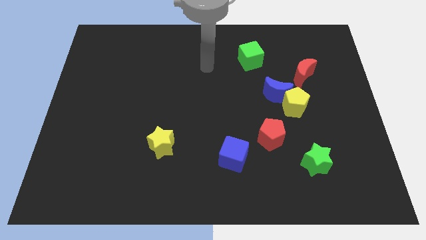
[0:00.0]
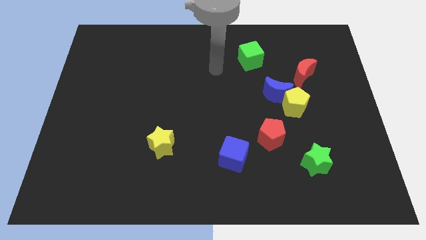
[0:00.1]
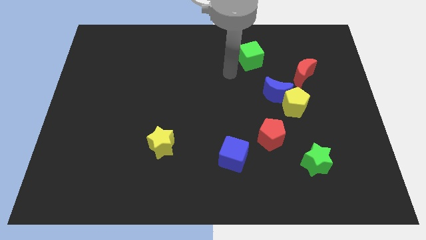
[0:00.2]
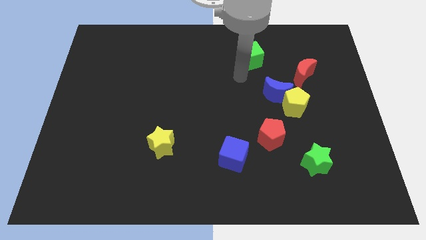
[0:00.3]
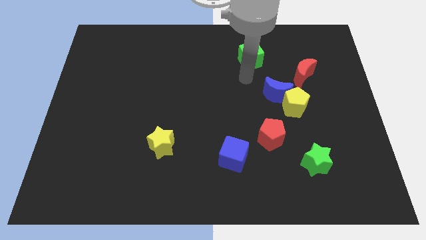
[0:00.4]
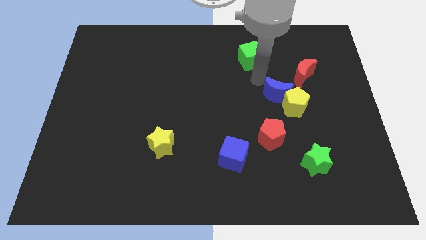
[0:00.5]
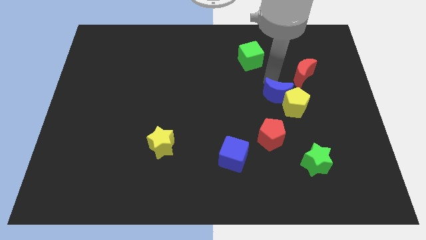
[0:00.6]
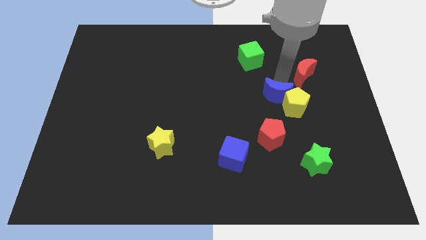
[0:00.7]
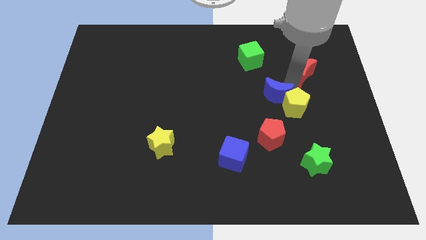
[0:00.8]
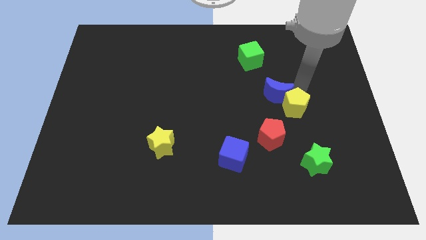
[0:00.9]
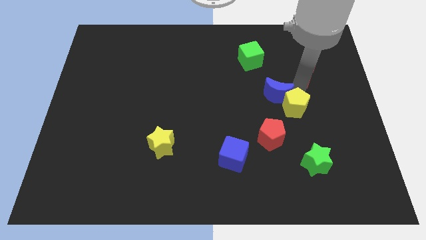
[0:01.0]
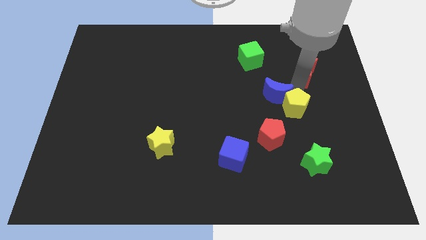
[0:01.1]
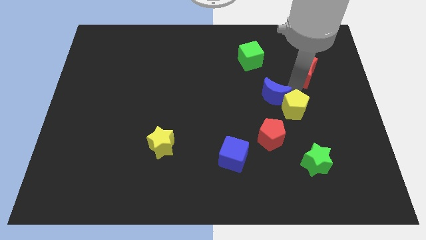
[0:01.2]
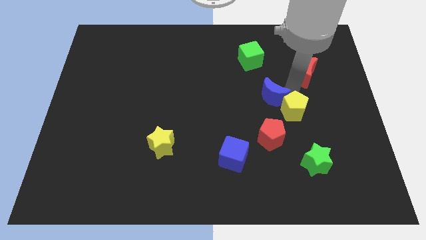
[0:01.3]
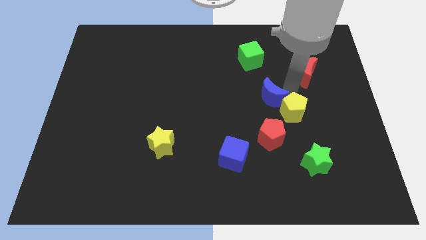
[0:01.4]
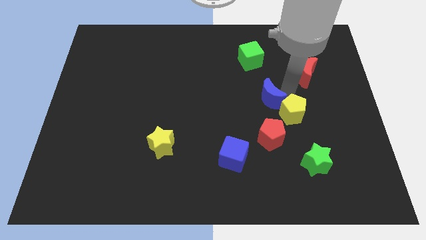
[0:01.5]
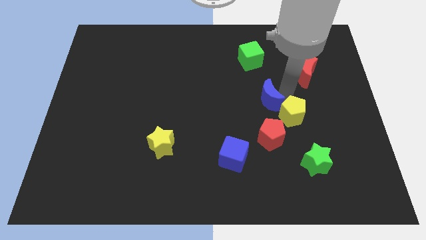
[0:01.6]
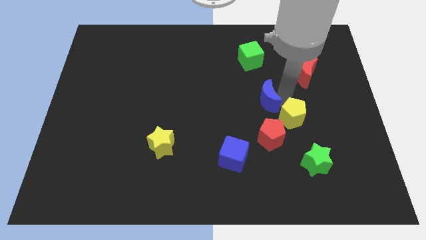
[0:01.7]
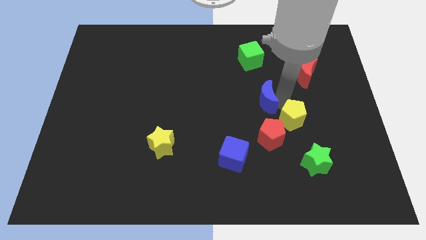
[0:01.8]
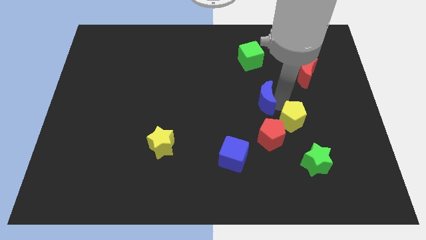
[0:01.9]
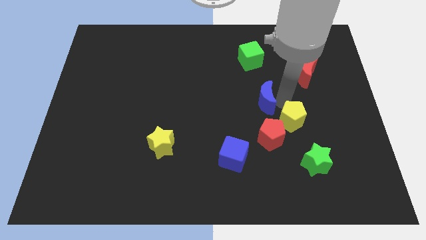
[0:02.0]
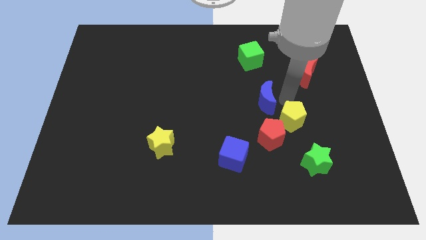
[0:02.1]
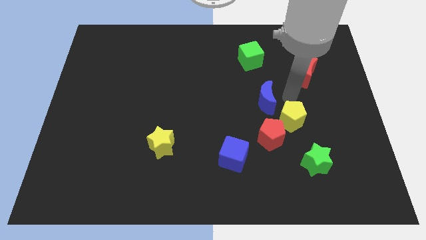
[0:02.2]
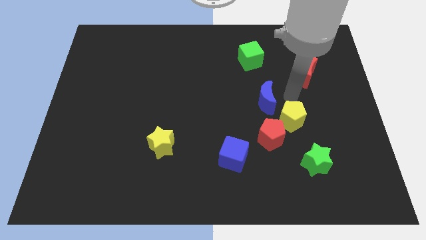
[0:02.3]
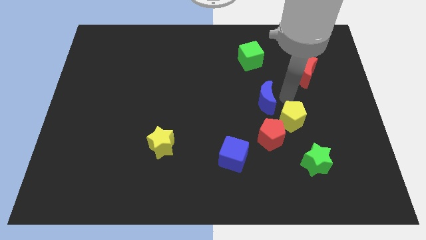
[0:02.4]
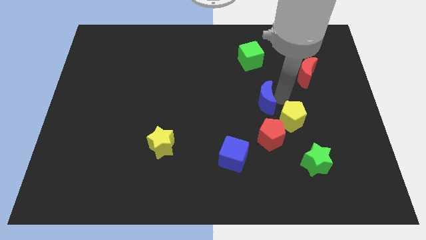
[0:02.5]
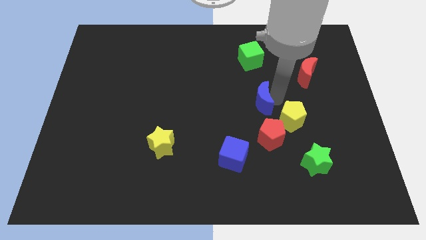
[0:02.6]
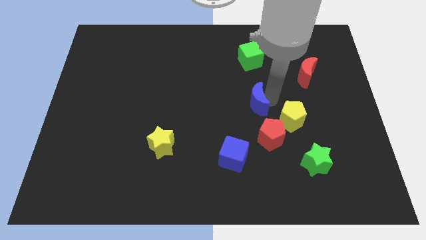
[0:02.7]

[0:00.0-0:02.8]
pull the blue moon apart from the yellow pentagon and red moon

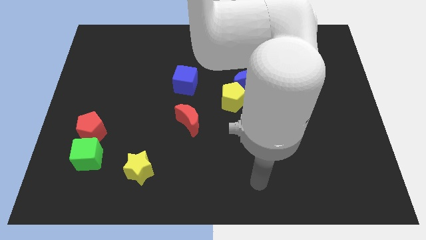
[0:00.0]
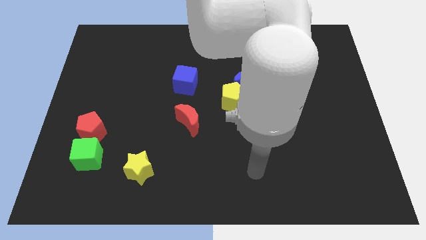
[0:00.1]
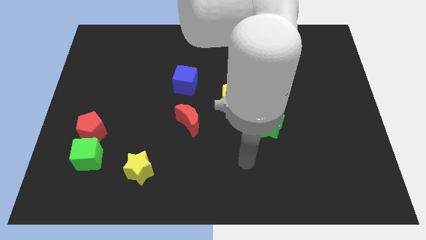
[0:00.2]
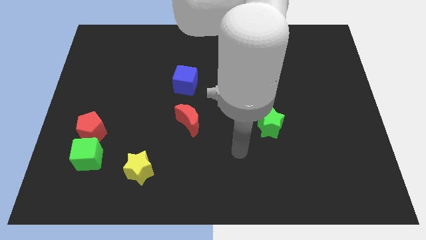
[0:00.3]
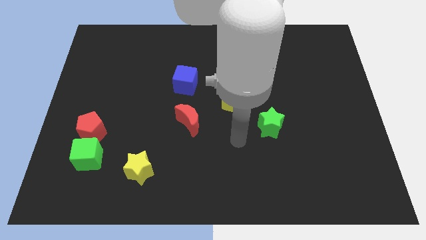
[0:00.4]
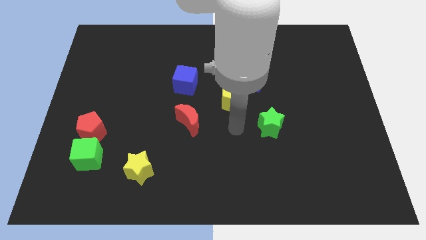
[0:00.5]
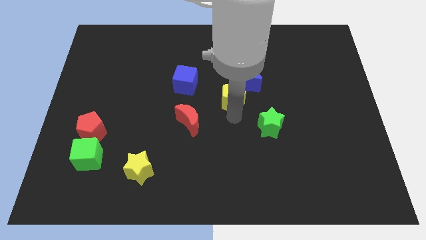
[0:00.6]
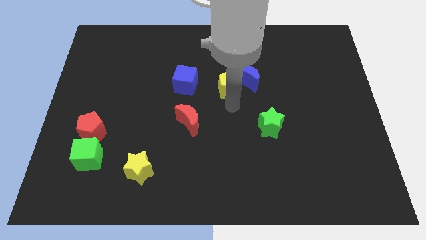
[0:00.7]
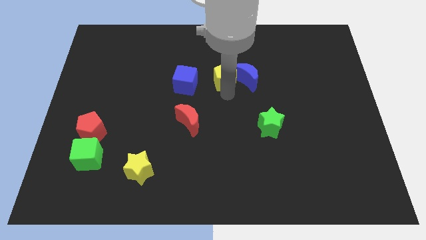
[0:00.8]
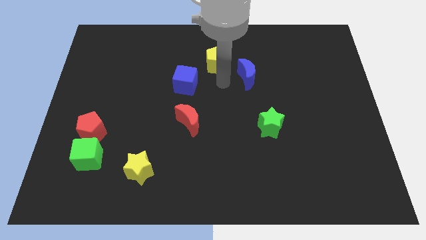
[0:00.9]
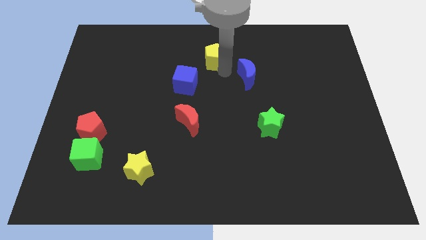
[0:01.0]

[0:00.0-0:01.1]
separate the blue moon from the yellow pentagon

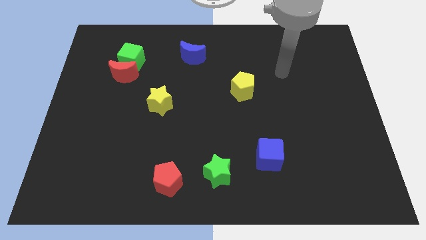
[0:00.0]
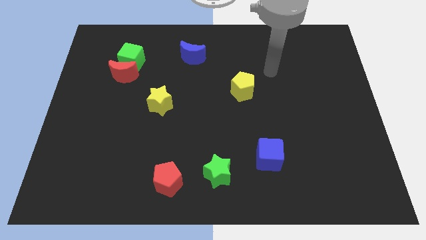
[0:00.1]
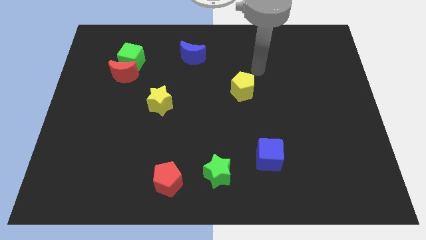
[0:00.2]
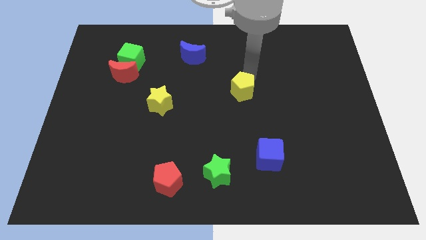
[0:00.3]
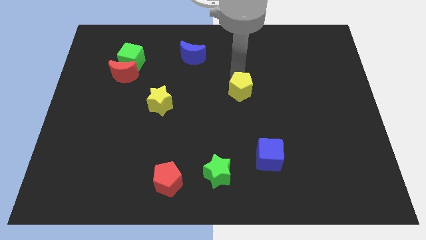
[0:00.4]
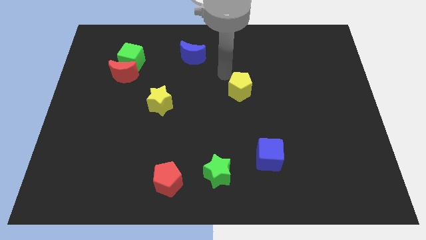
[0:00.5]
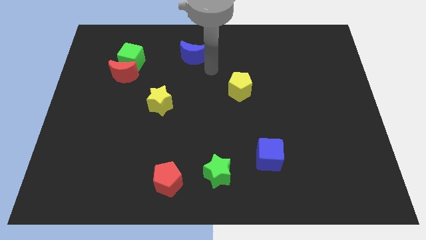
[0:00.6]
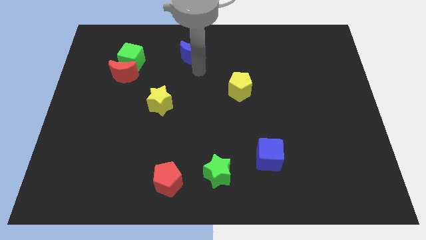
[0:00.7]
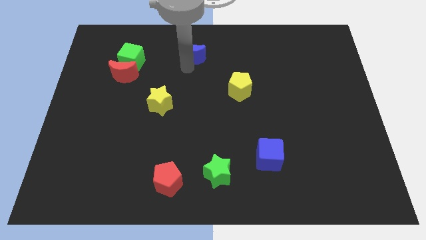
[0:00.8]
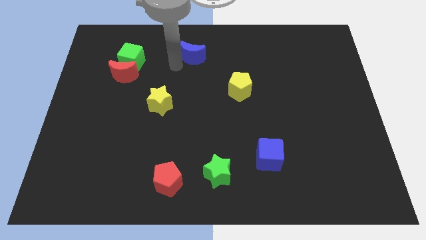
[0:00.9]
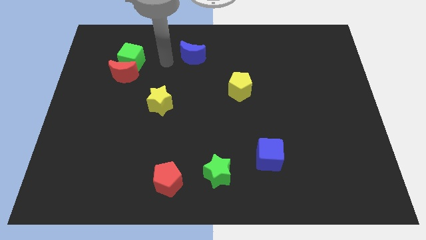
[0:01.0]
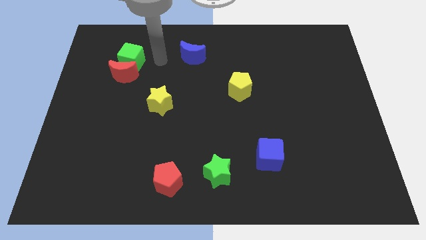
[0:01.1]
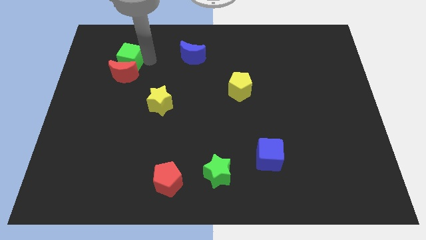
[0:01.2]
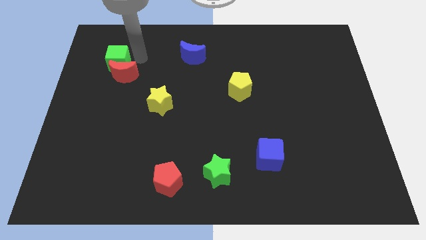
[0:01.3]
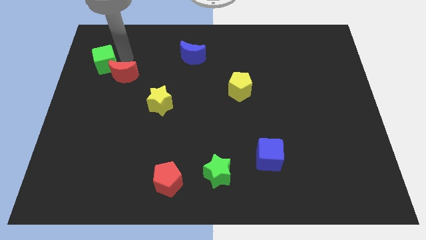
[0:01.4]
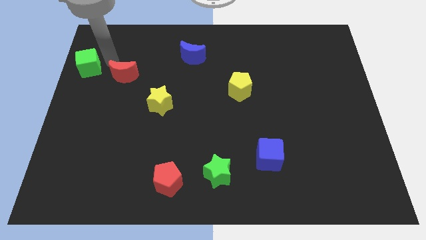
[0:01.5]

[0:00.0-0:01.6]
move the red moon away from the green cube

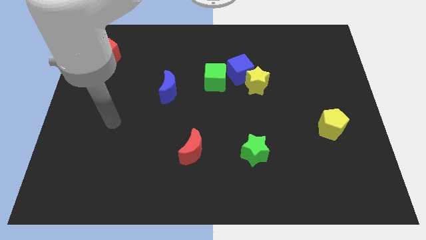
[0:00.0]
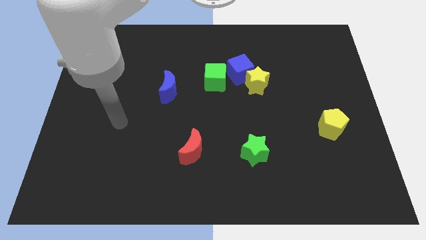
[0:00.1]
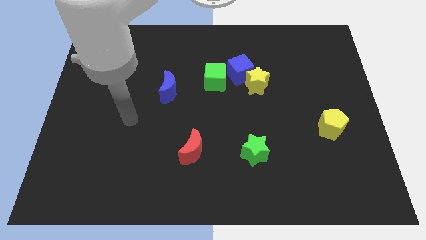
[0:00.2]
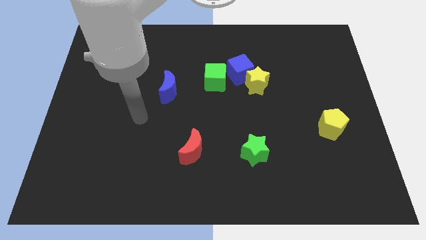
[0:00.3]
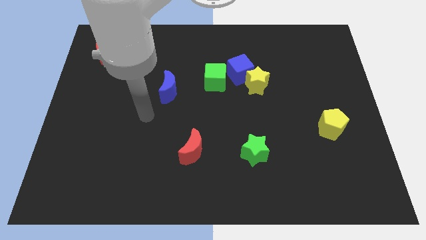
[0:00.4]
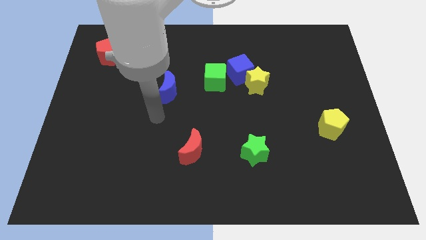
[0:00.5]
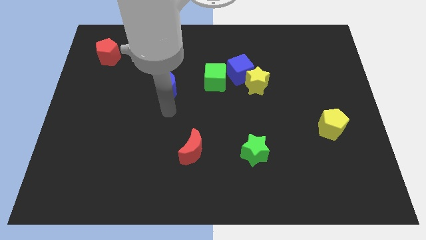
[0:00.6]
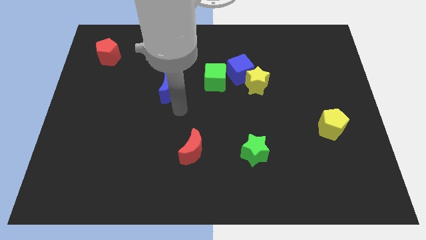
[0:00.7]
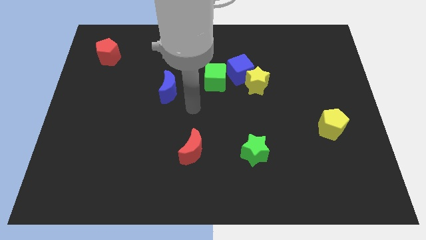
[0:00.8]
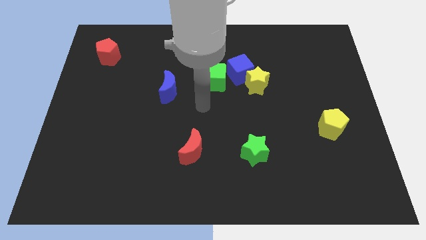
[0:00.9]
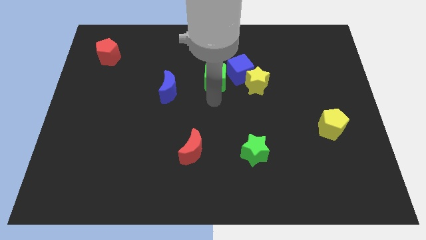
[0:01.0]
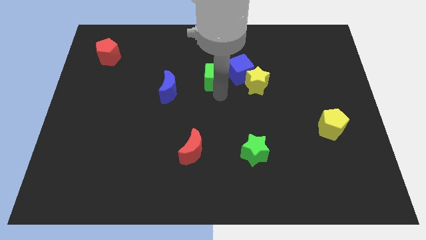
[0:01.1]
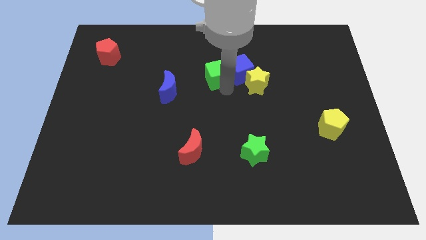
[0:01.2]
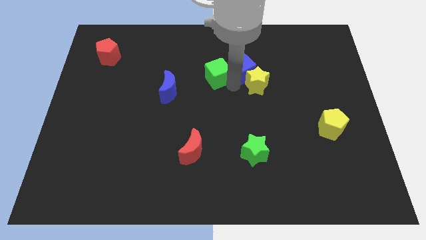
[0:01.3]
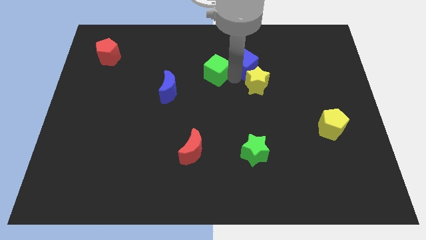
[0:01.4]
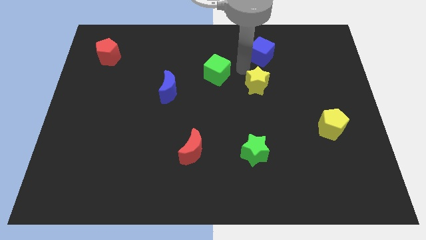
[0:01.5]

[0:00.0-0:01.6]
move the yellow star away from the blue cube

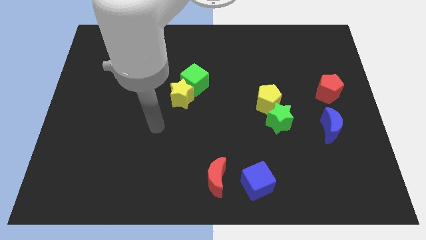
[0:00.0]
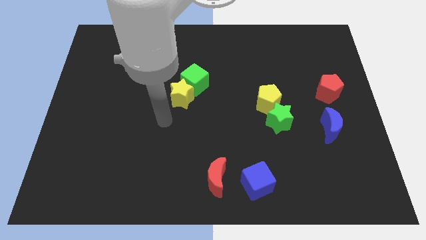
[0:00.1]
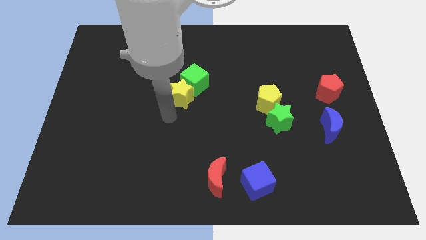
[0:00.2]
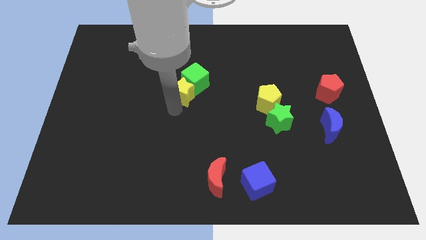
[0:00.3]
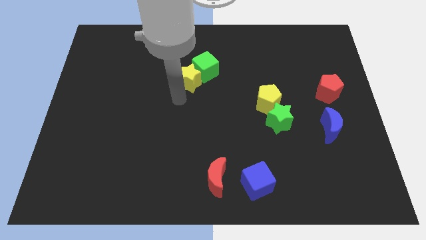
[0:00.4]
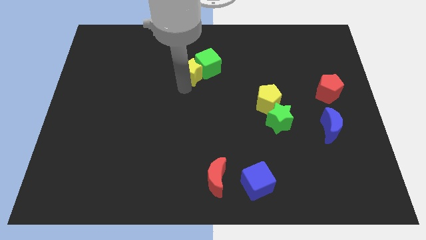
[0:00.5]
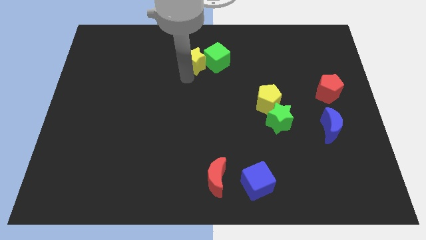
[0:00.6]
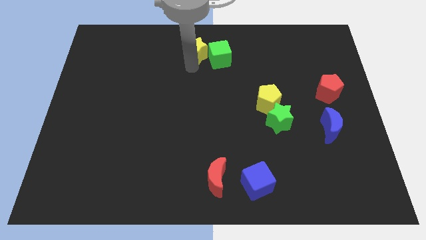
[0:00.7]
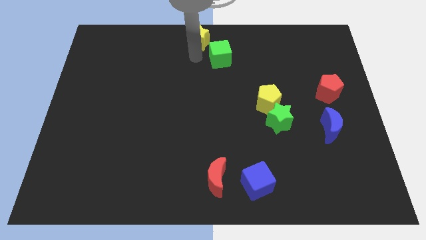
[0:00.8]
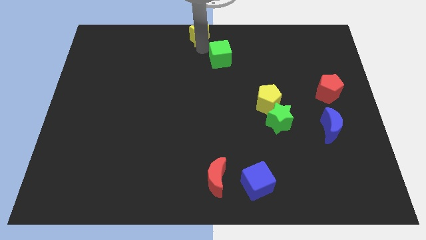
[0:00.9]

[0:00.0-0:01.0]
pull the green cube apart from the yellow star

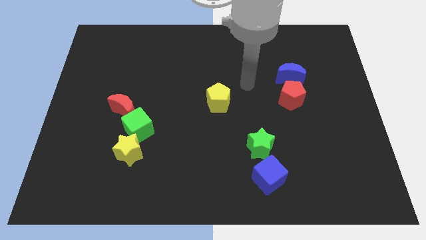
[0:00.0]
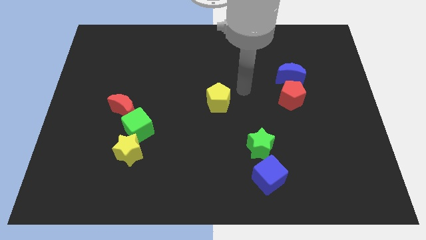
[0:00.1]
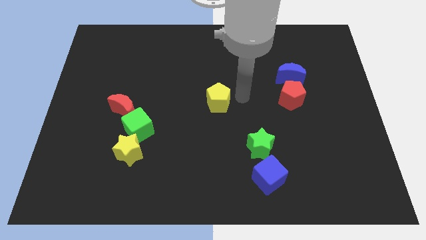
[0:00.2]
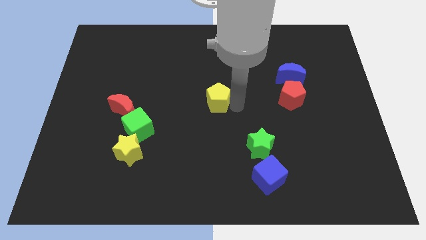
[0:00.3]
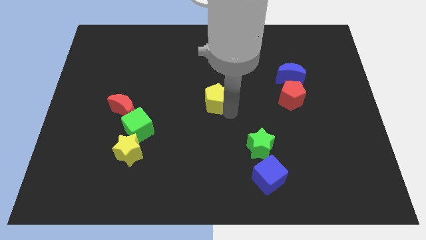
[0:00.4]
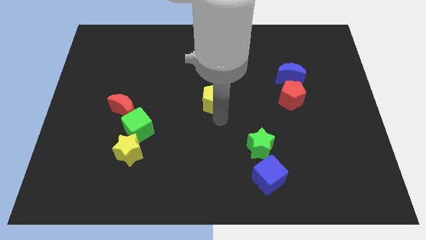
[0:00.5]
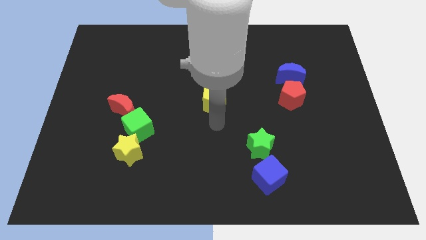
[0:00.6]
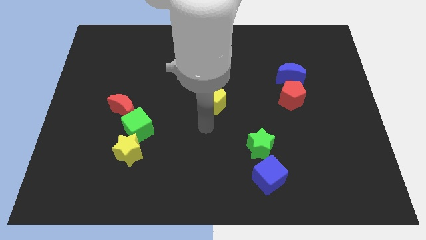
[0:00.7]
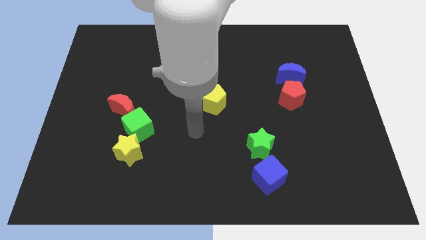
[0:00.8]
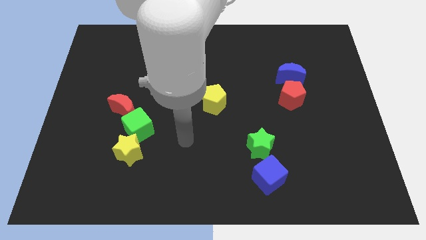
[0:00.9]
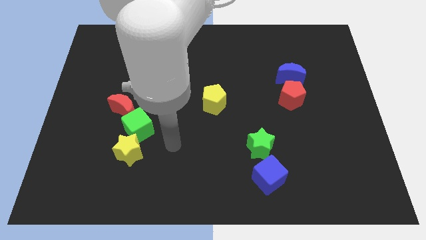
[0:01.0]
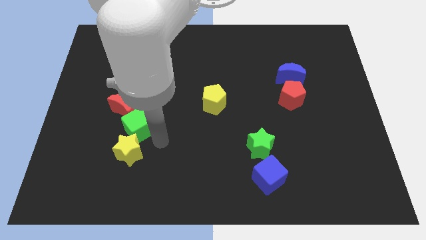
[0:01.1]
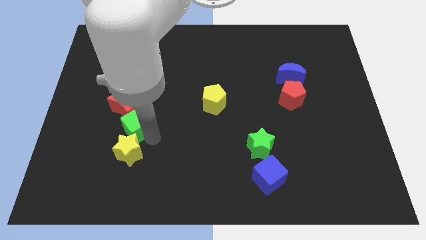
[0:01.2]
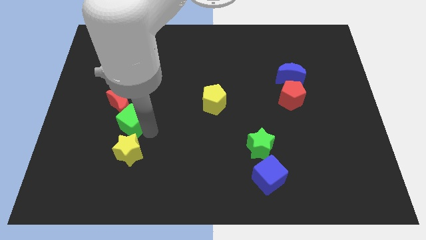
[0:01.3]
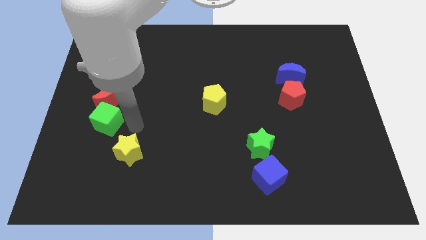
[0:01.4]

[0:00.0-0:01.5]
pull the yellow star apart from the green cube
